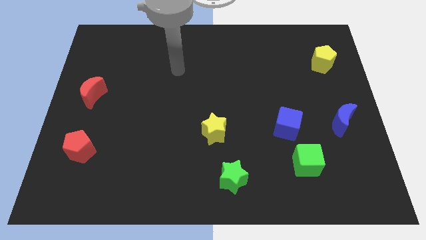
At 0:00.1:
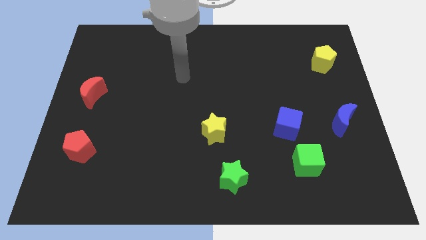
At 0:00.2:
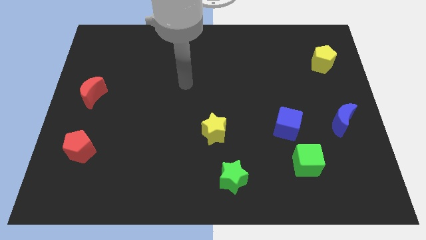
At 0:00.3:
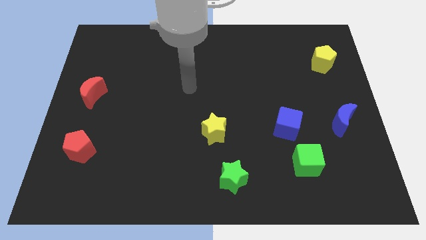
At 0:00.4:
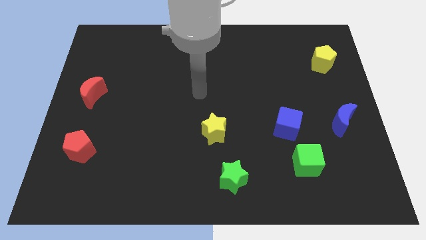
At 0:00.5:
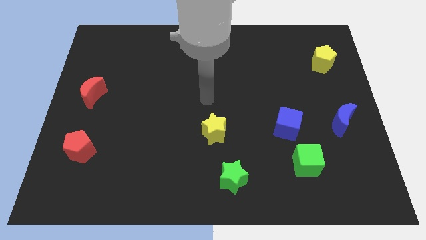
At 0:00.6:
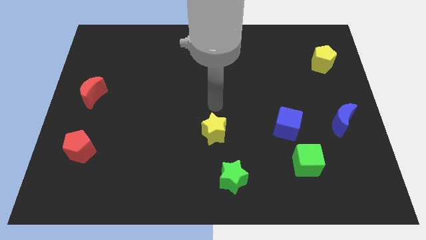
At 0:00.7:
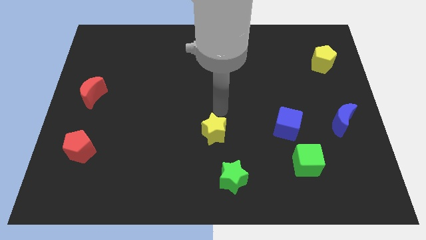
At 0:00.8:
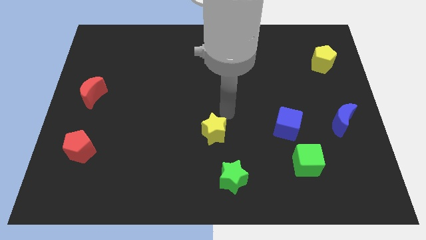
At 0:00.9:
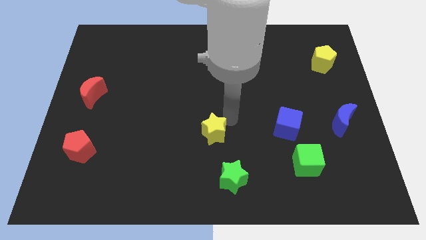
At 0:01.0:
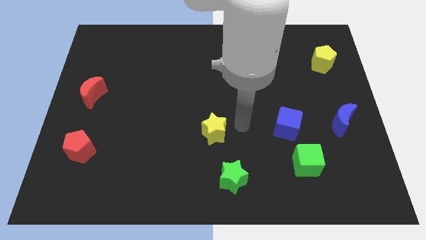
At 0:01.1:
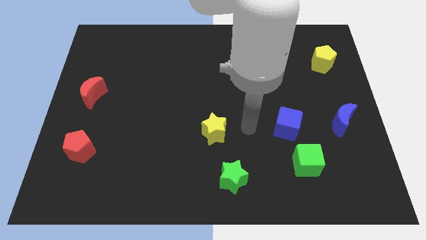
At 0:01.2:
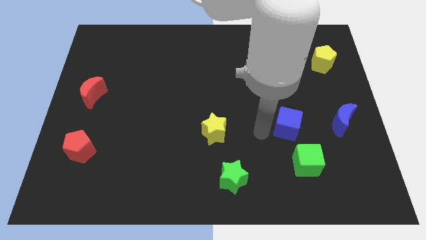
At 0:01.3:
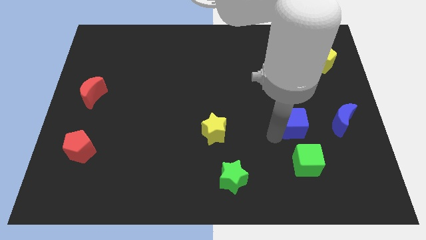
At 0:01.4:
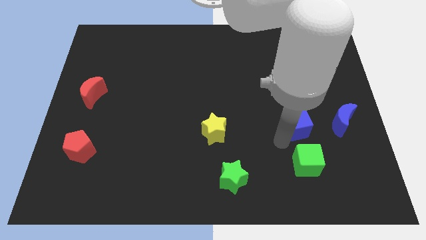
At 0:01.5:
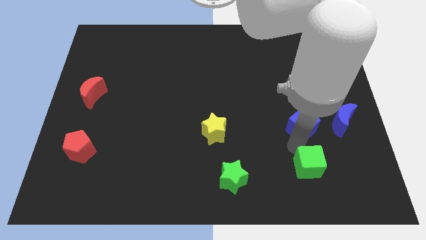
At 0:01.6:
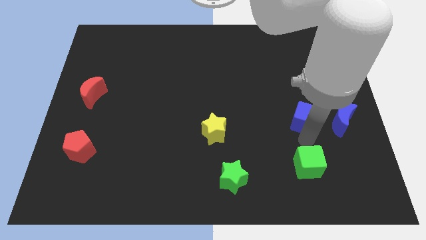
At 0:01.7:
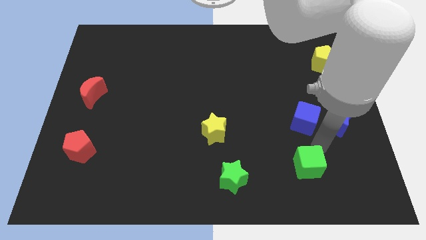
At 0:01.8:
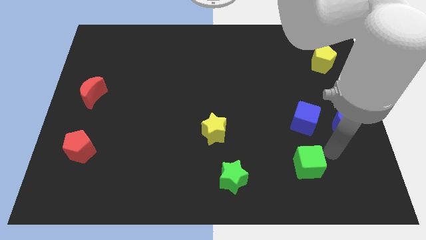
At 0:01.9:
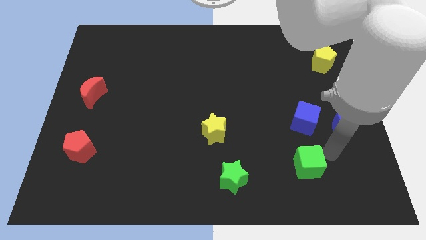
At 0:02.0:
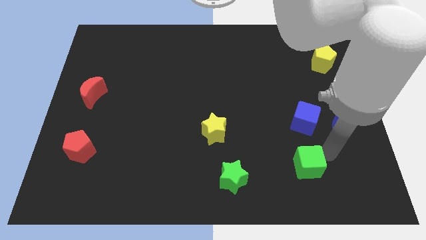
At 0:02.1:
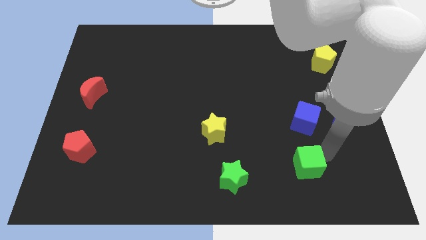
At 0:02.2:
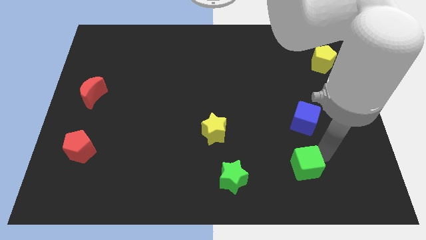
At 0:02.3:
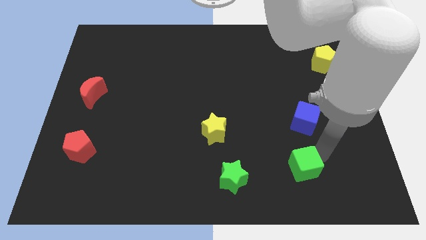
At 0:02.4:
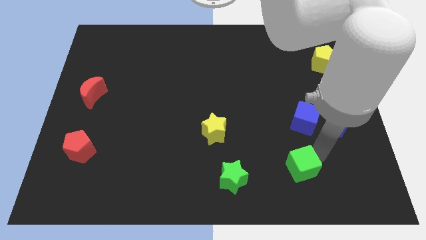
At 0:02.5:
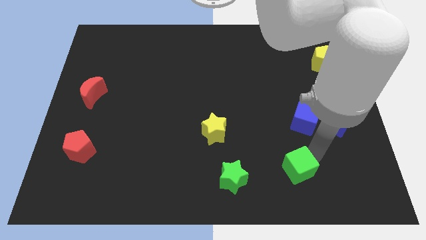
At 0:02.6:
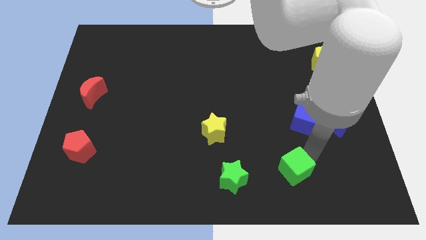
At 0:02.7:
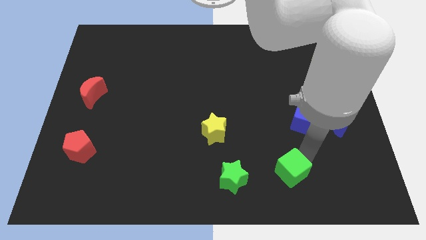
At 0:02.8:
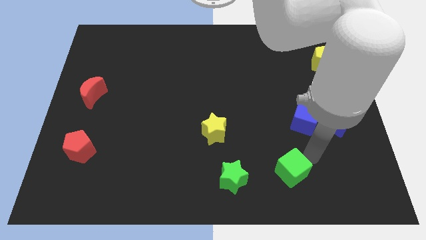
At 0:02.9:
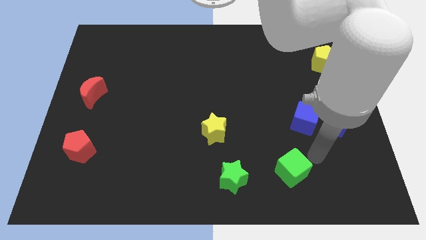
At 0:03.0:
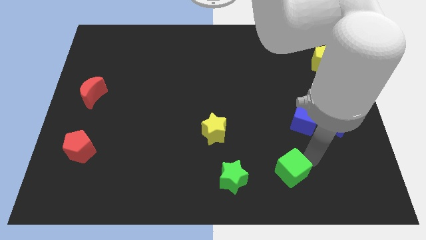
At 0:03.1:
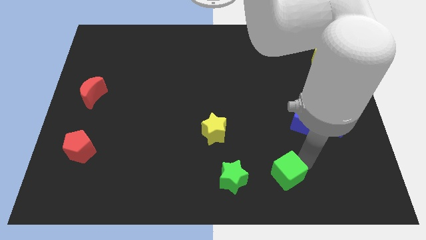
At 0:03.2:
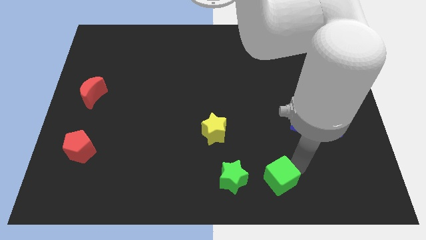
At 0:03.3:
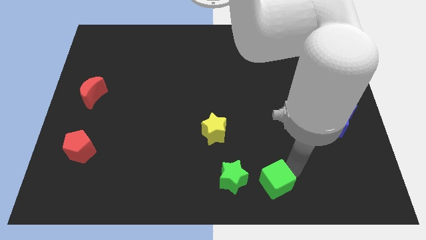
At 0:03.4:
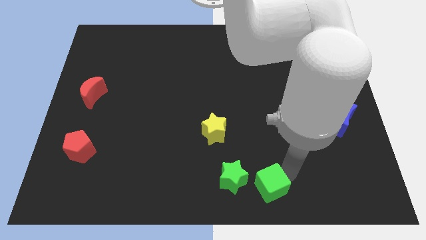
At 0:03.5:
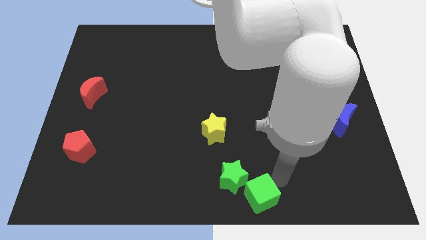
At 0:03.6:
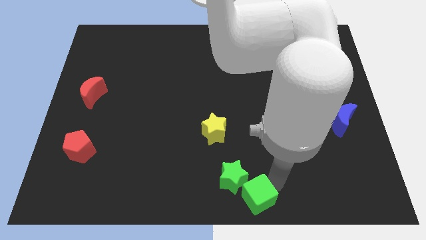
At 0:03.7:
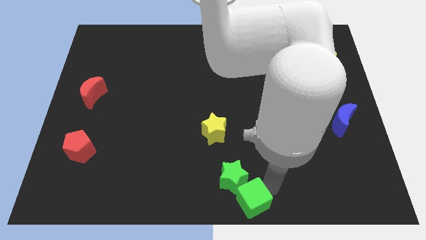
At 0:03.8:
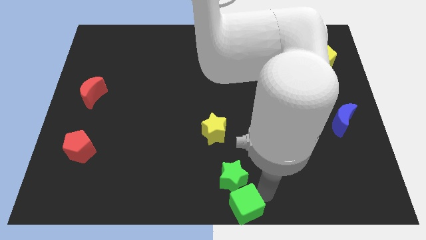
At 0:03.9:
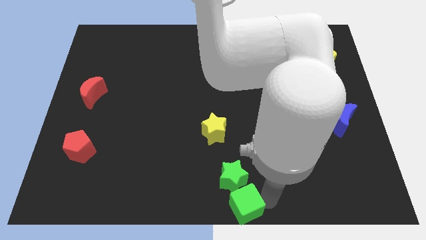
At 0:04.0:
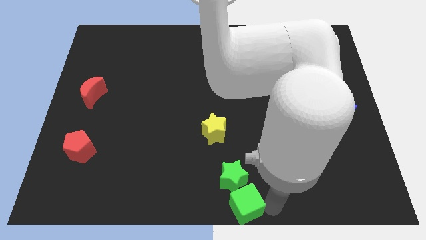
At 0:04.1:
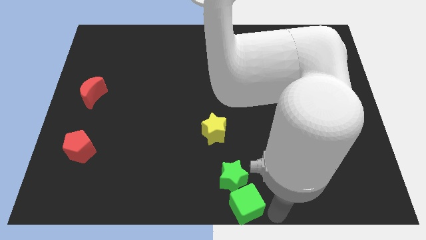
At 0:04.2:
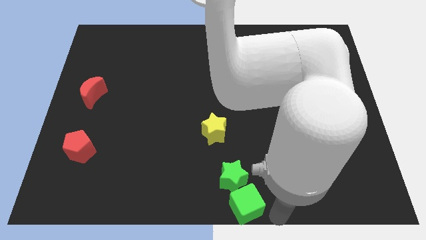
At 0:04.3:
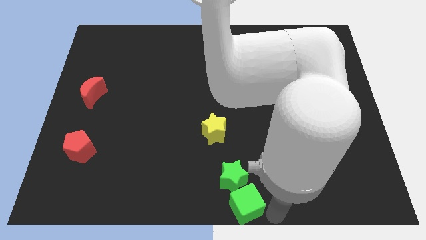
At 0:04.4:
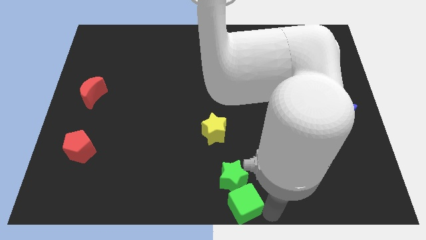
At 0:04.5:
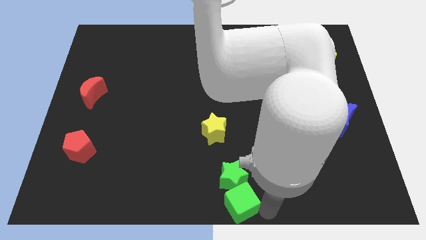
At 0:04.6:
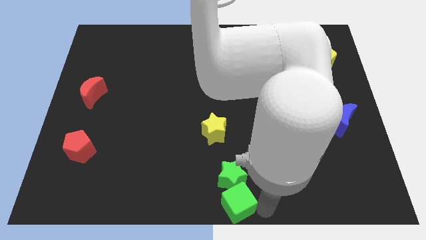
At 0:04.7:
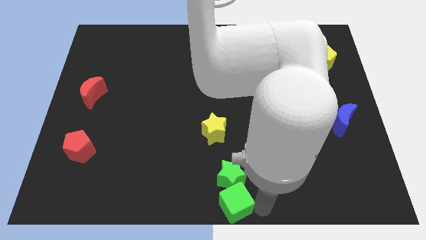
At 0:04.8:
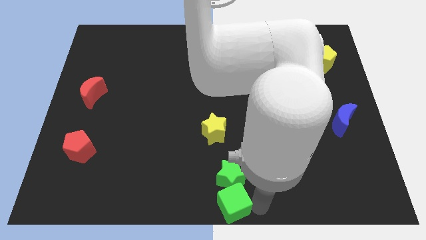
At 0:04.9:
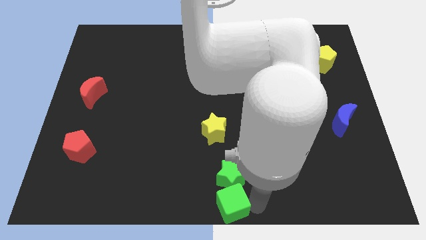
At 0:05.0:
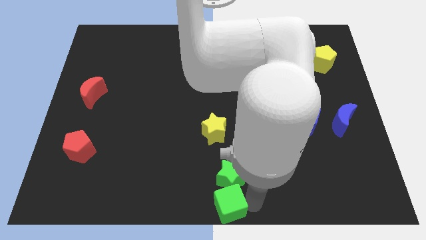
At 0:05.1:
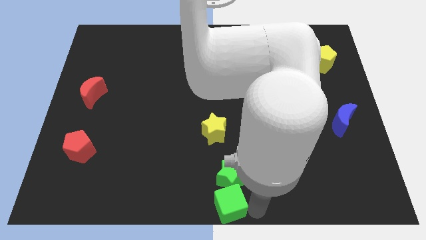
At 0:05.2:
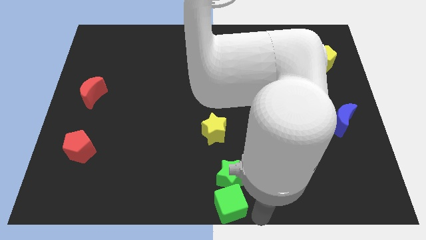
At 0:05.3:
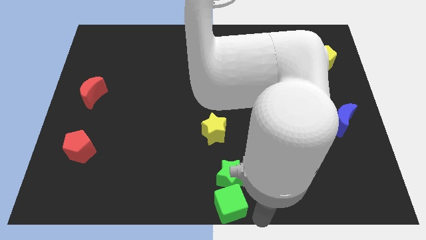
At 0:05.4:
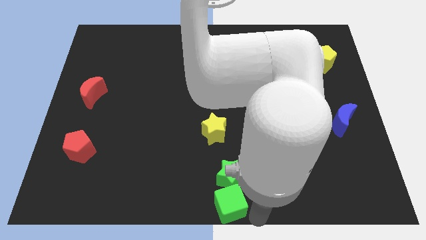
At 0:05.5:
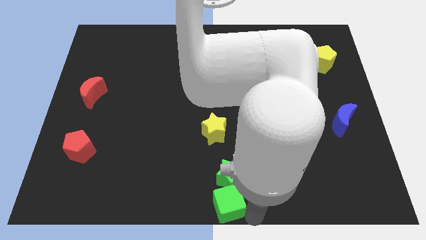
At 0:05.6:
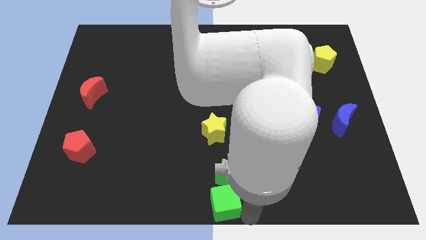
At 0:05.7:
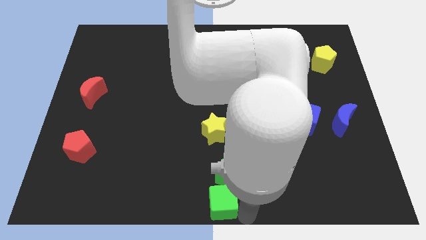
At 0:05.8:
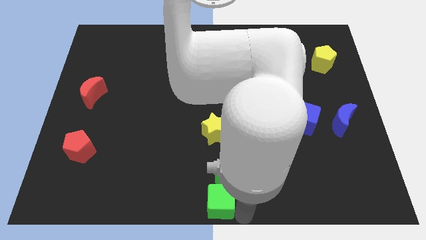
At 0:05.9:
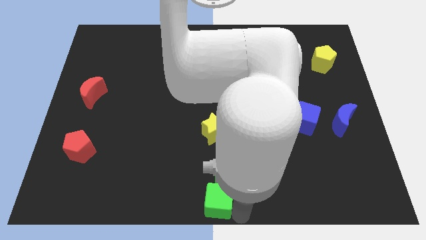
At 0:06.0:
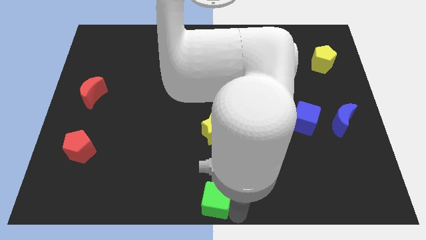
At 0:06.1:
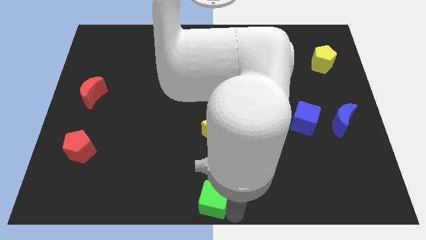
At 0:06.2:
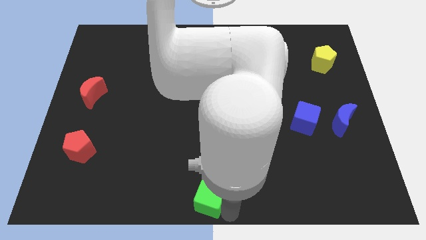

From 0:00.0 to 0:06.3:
move the green cube left of the green star
